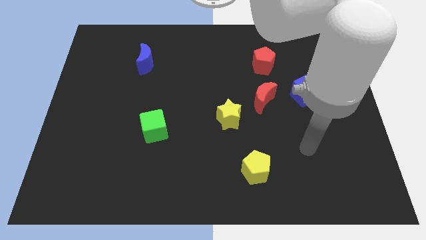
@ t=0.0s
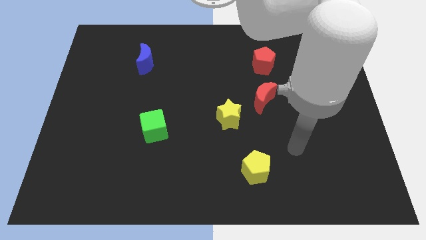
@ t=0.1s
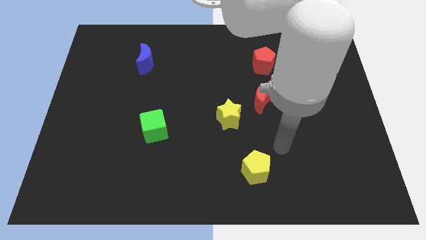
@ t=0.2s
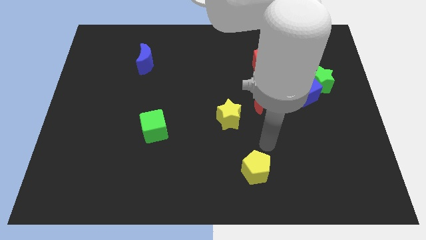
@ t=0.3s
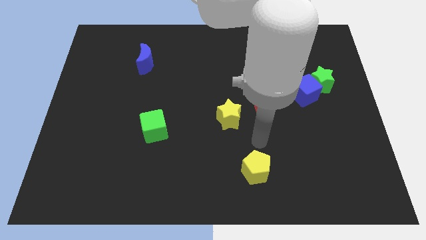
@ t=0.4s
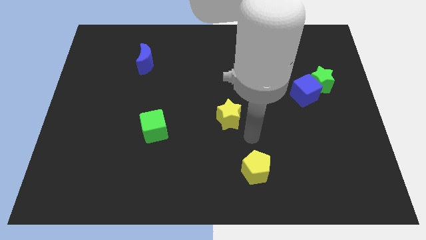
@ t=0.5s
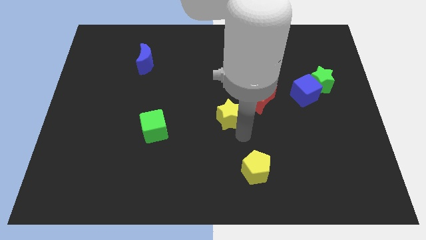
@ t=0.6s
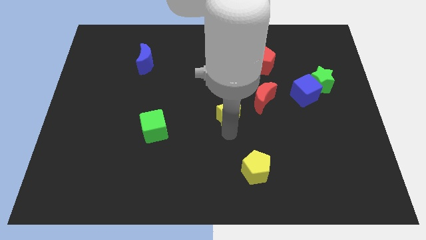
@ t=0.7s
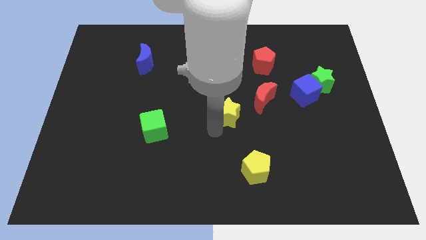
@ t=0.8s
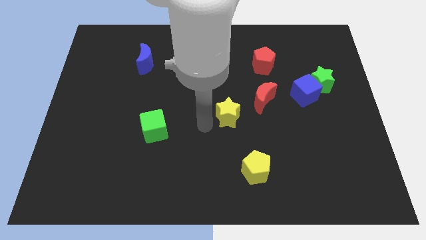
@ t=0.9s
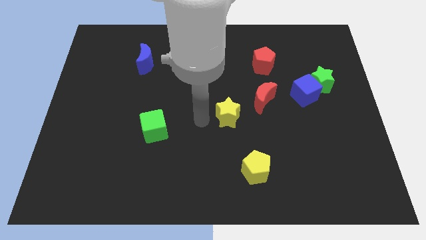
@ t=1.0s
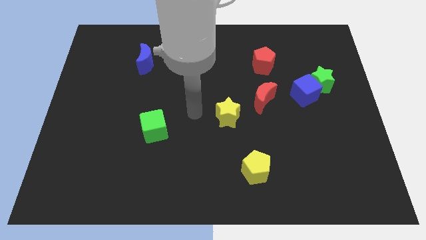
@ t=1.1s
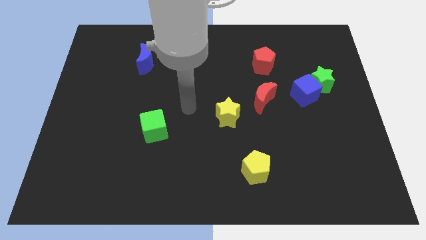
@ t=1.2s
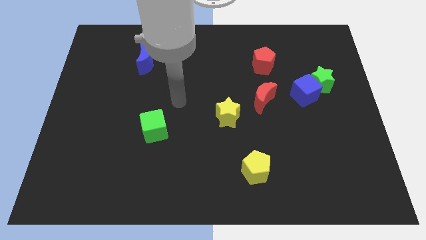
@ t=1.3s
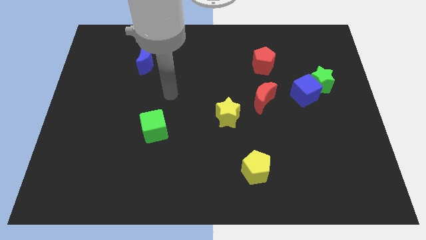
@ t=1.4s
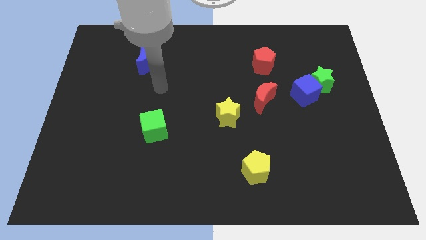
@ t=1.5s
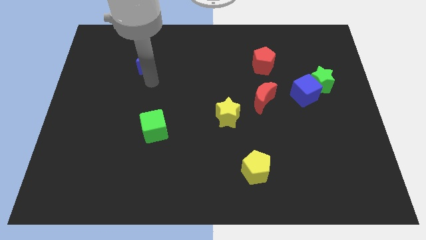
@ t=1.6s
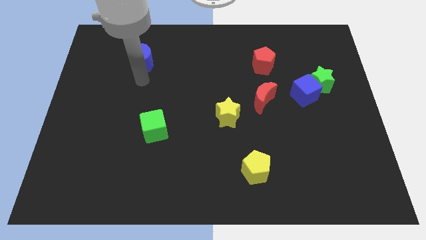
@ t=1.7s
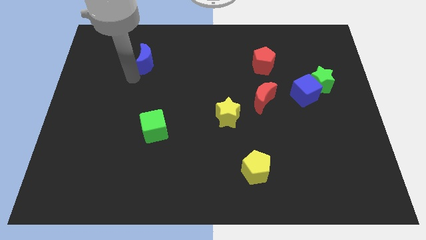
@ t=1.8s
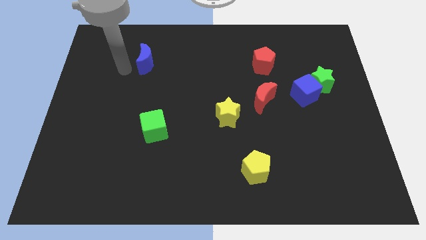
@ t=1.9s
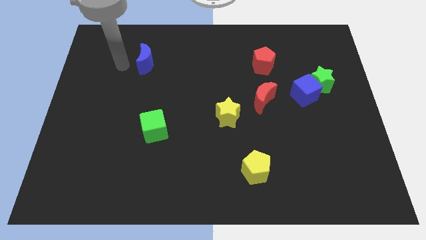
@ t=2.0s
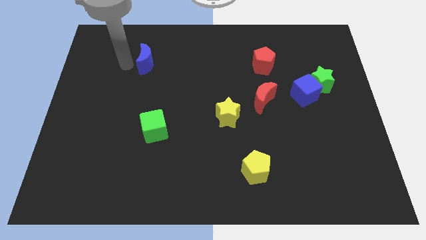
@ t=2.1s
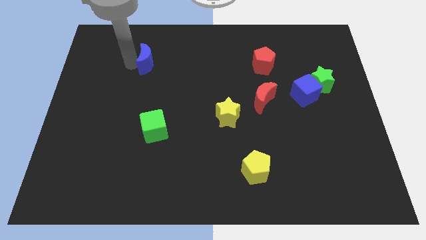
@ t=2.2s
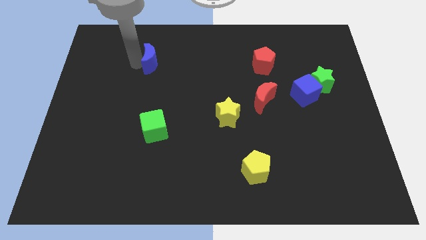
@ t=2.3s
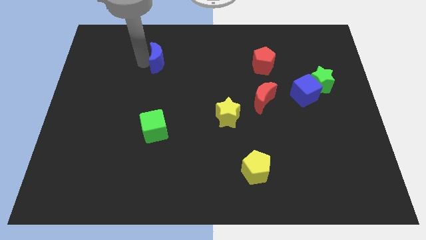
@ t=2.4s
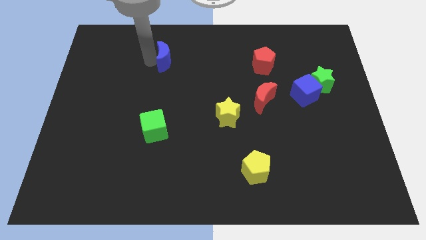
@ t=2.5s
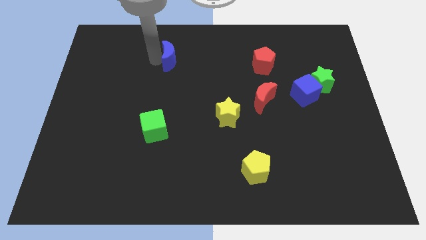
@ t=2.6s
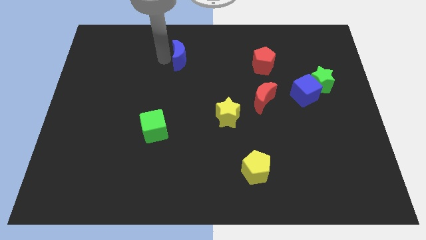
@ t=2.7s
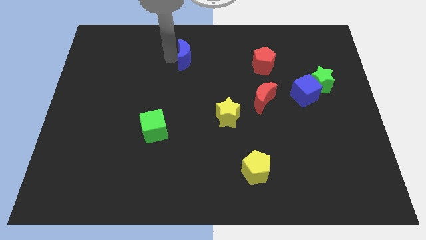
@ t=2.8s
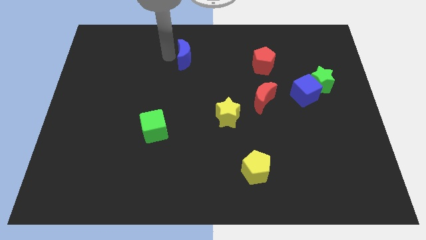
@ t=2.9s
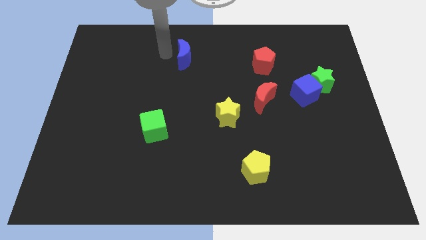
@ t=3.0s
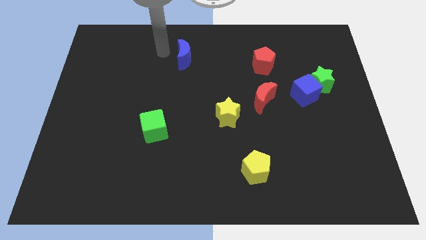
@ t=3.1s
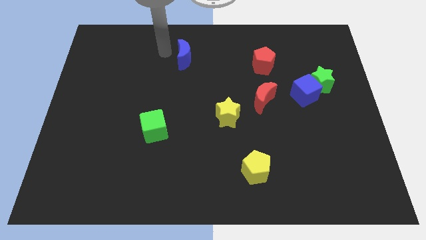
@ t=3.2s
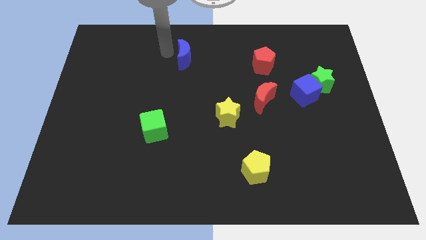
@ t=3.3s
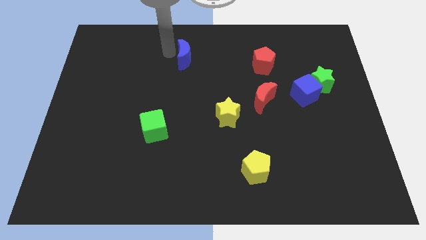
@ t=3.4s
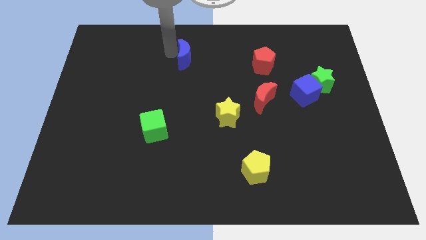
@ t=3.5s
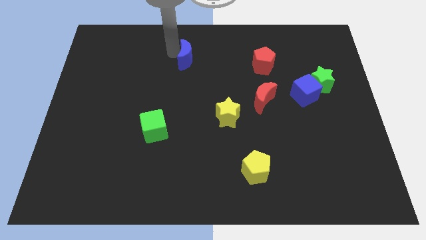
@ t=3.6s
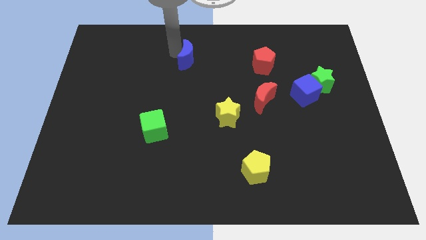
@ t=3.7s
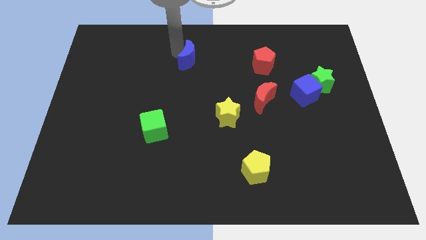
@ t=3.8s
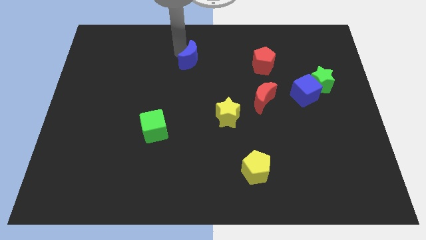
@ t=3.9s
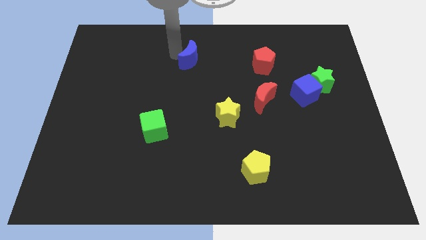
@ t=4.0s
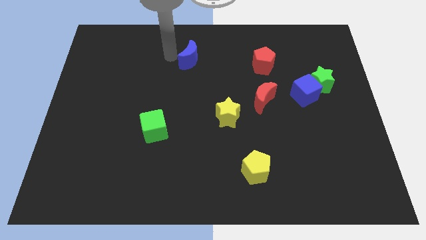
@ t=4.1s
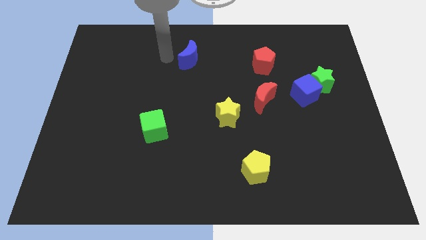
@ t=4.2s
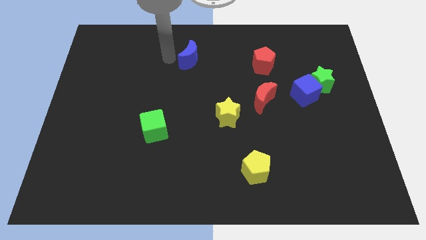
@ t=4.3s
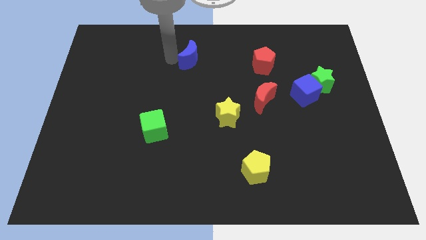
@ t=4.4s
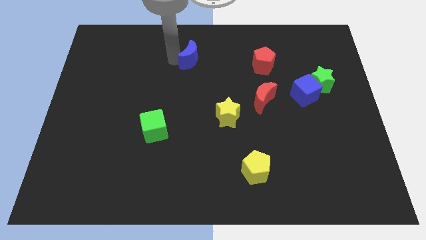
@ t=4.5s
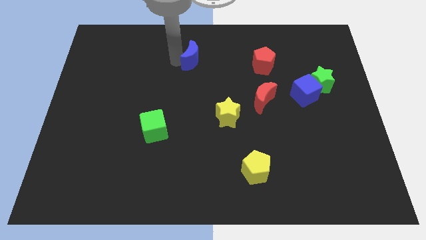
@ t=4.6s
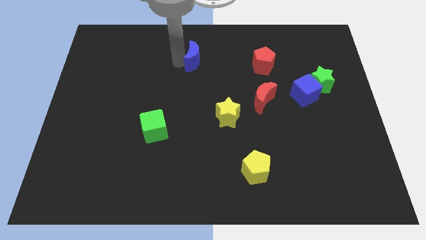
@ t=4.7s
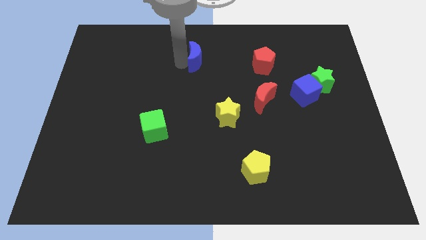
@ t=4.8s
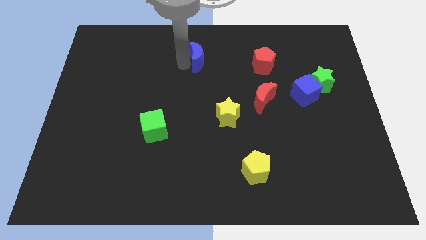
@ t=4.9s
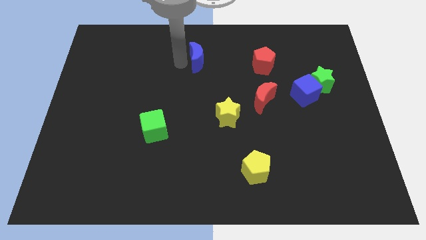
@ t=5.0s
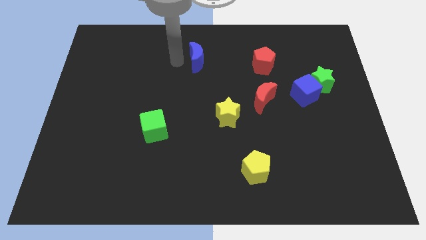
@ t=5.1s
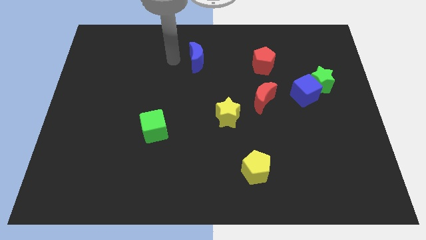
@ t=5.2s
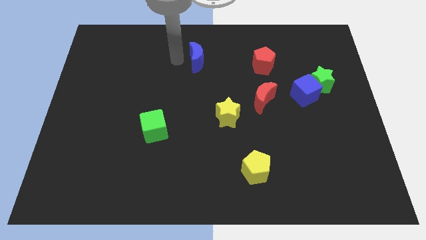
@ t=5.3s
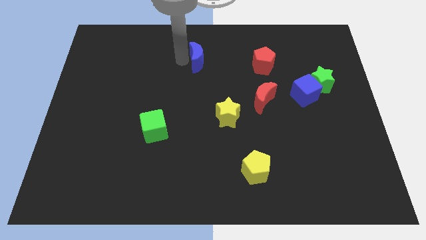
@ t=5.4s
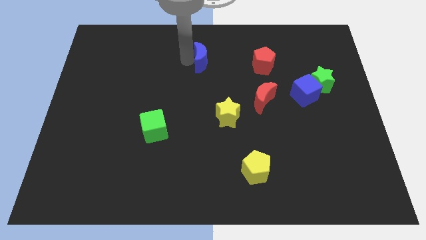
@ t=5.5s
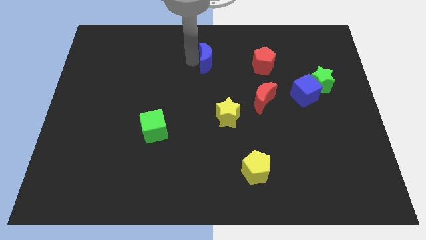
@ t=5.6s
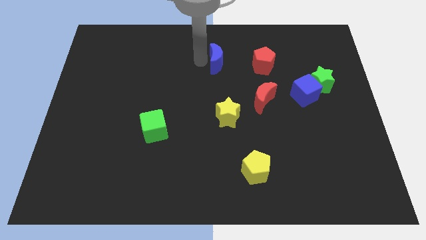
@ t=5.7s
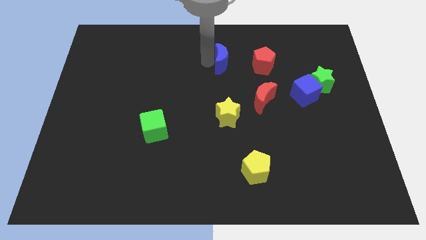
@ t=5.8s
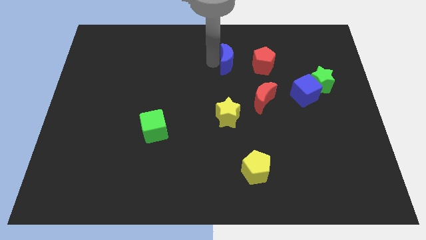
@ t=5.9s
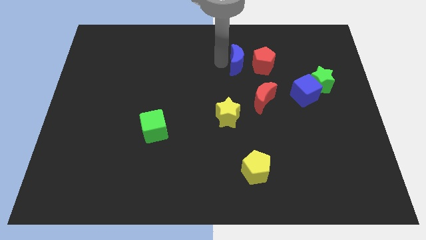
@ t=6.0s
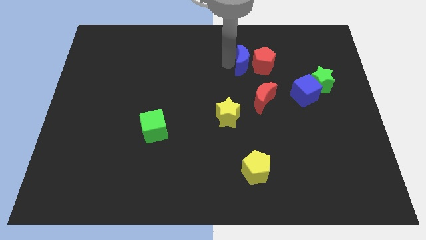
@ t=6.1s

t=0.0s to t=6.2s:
put the blue moon next to the red pentagon

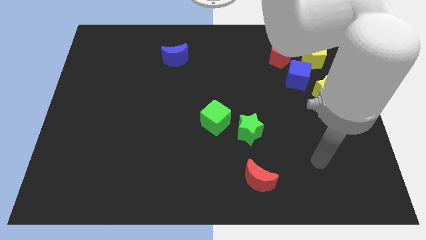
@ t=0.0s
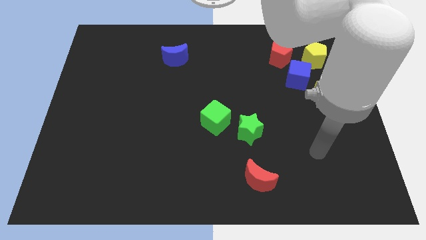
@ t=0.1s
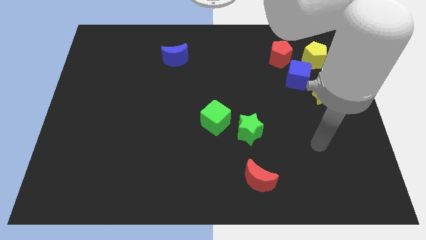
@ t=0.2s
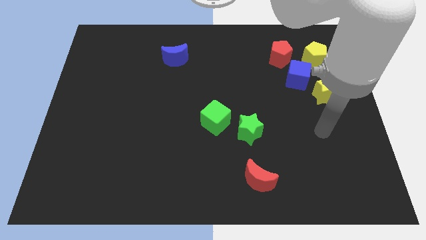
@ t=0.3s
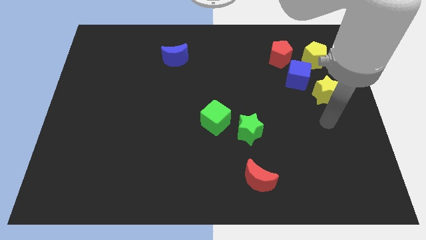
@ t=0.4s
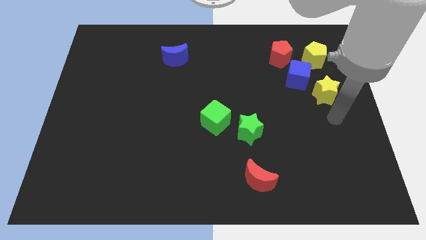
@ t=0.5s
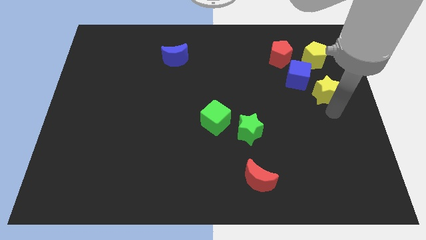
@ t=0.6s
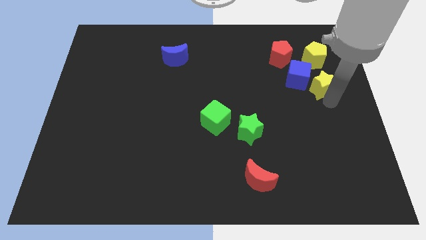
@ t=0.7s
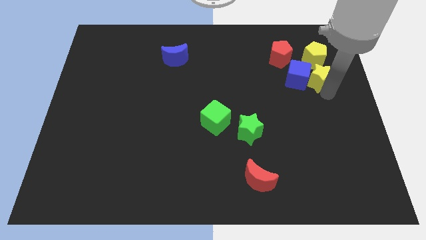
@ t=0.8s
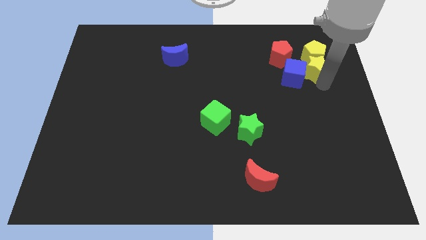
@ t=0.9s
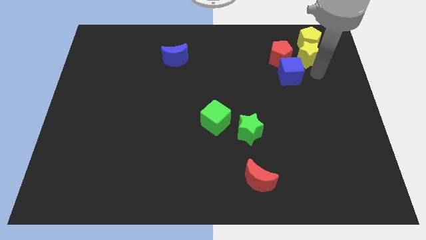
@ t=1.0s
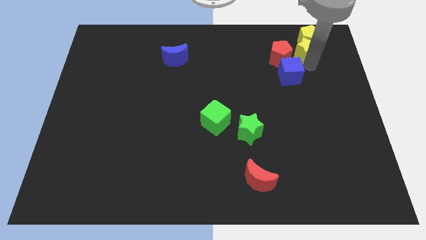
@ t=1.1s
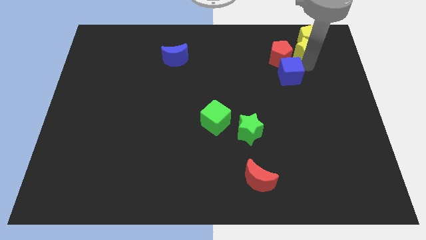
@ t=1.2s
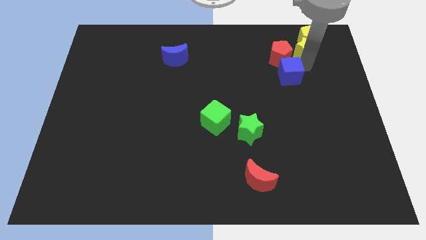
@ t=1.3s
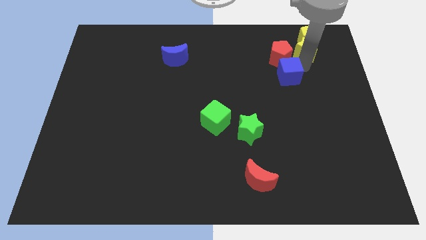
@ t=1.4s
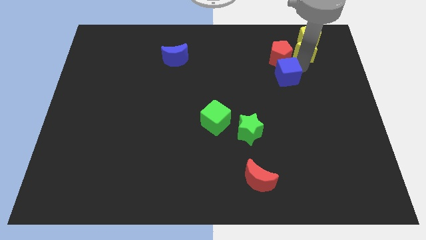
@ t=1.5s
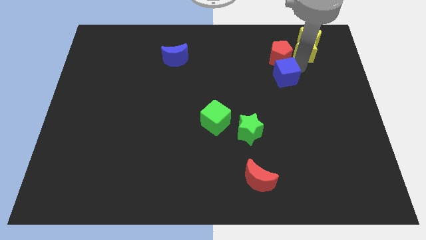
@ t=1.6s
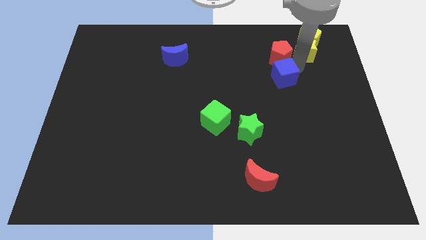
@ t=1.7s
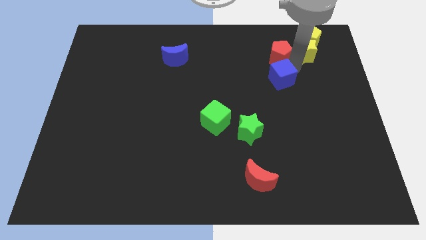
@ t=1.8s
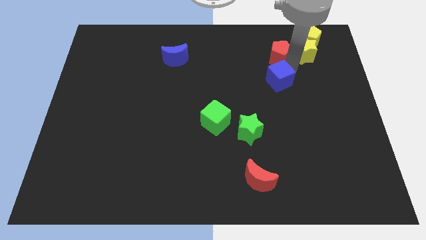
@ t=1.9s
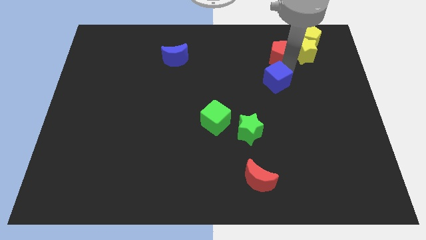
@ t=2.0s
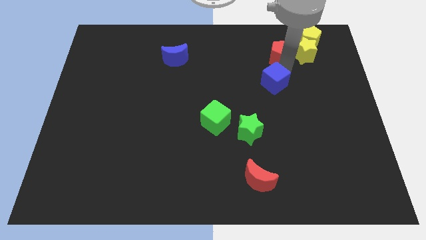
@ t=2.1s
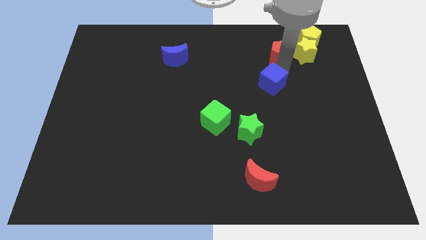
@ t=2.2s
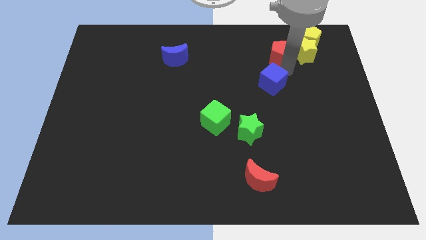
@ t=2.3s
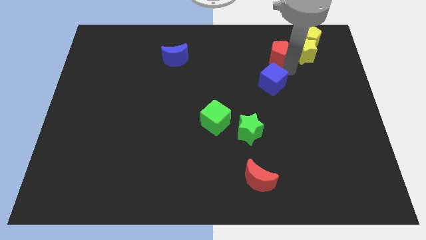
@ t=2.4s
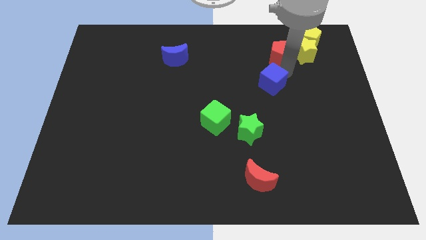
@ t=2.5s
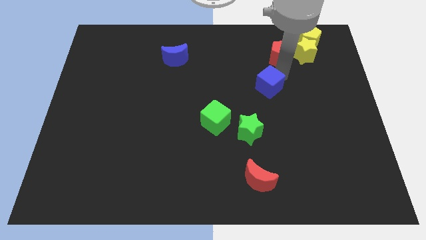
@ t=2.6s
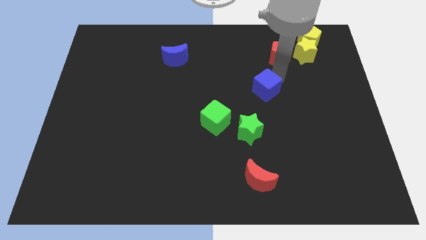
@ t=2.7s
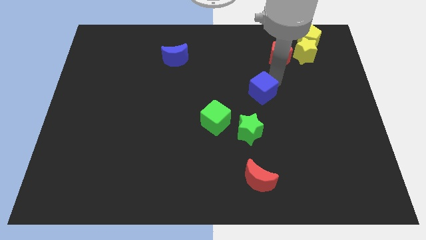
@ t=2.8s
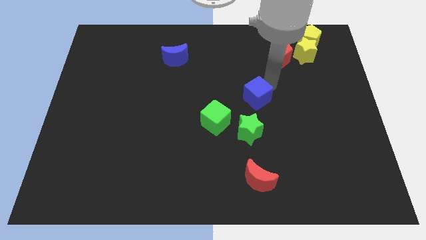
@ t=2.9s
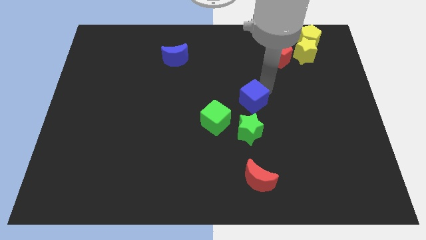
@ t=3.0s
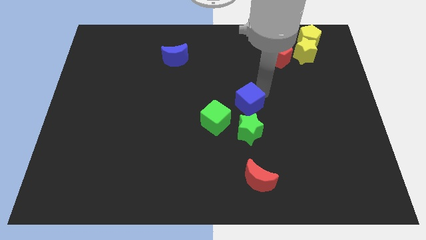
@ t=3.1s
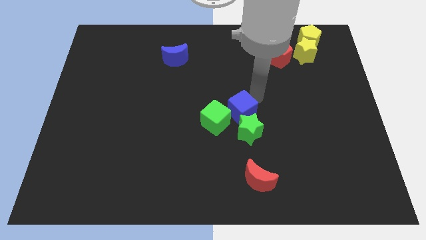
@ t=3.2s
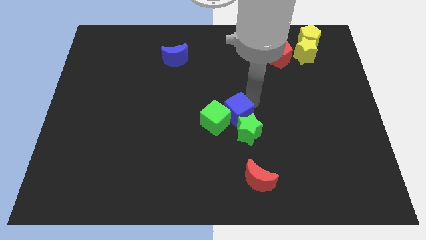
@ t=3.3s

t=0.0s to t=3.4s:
put the blue cube towards the green cube
